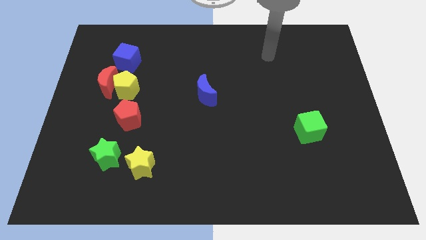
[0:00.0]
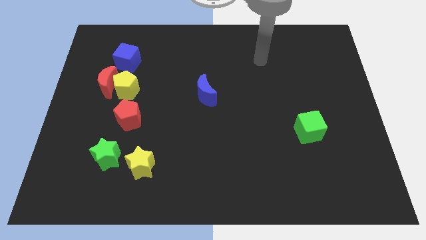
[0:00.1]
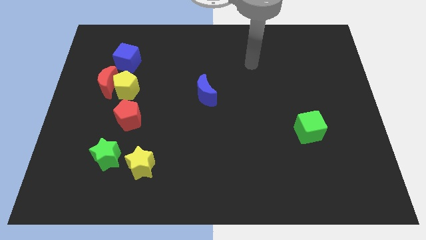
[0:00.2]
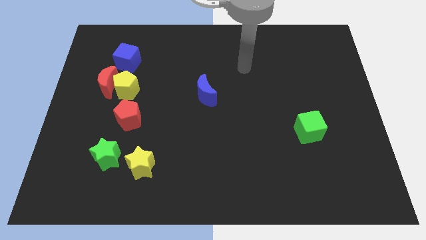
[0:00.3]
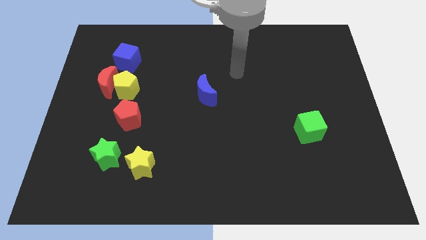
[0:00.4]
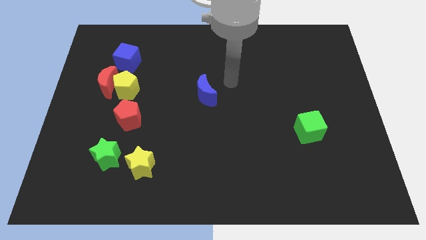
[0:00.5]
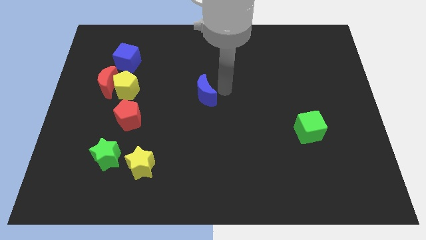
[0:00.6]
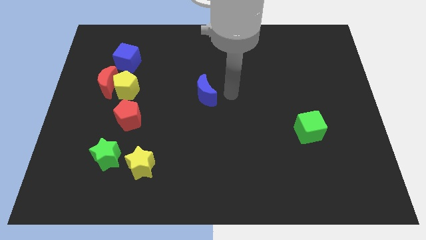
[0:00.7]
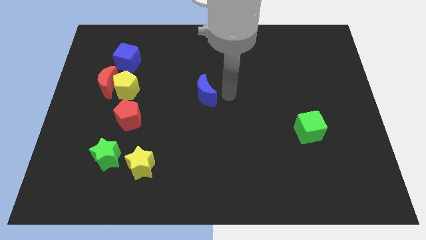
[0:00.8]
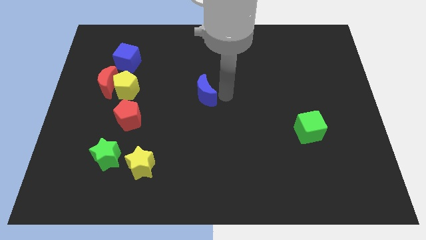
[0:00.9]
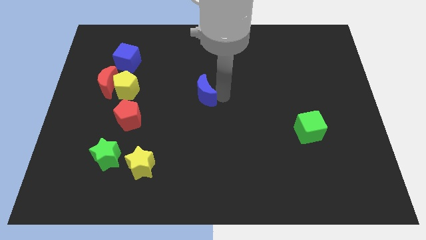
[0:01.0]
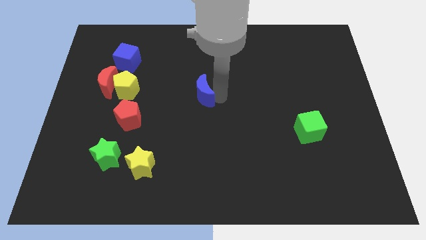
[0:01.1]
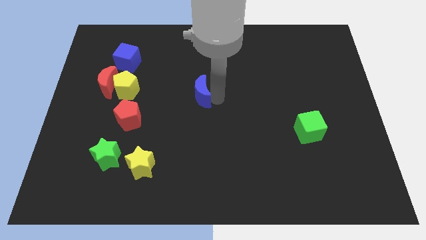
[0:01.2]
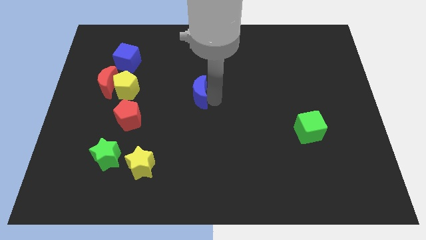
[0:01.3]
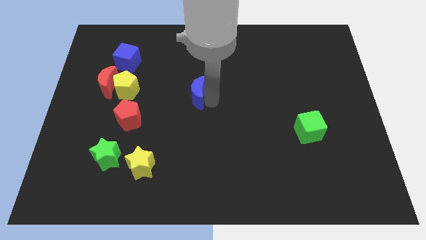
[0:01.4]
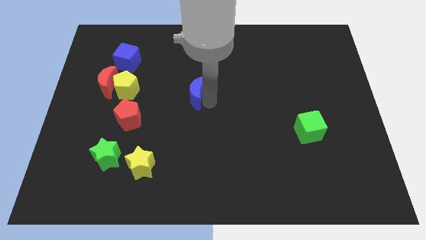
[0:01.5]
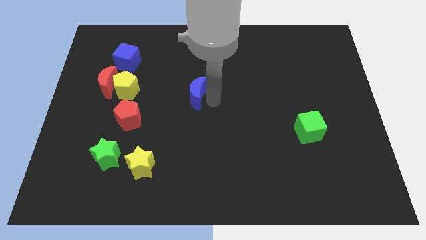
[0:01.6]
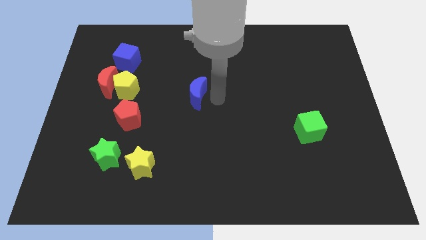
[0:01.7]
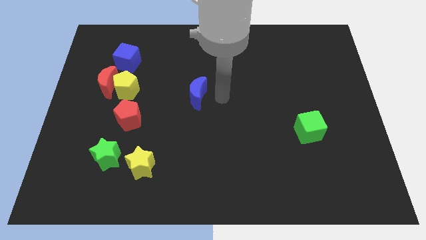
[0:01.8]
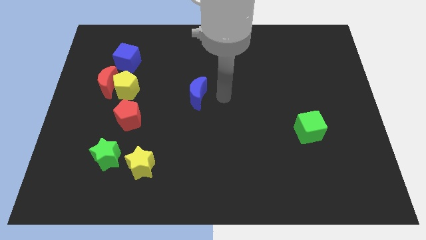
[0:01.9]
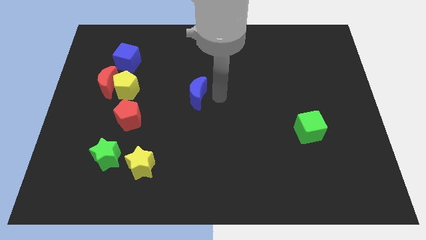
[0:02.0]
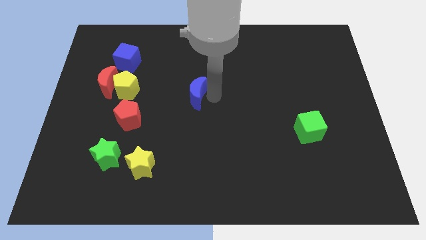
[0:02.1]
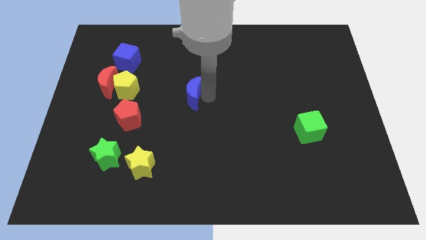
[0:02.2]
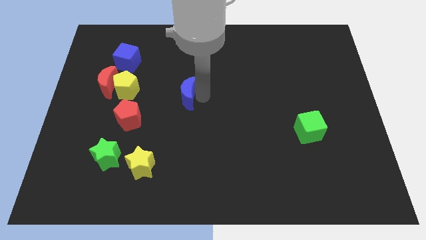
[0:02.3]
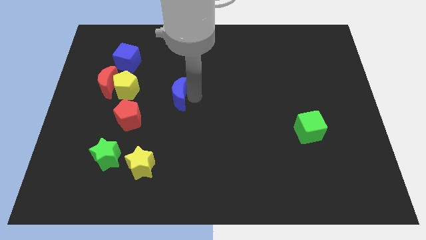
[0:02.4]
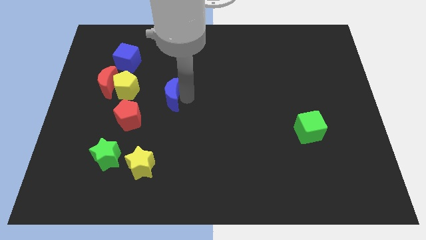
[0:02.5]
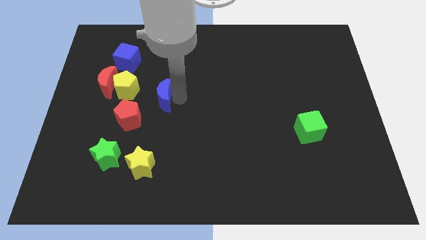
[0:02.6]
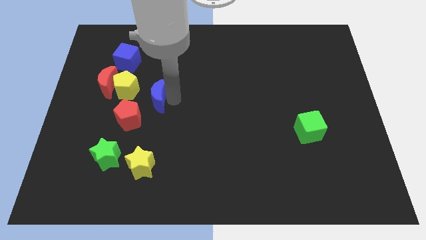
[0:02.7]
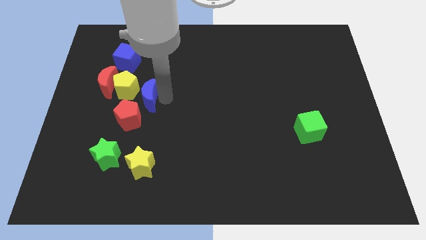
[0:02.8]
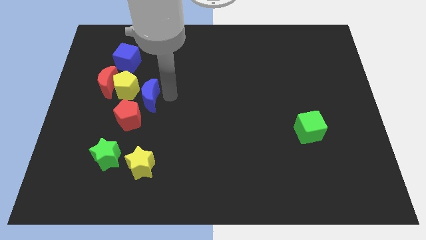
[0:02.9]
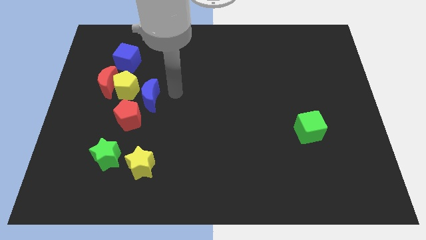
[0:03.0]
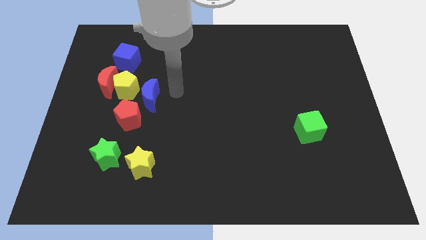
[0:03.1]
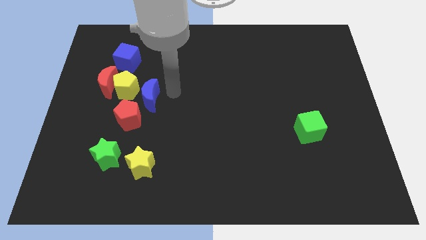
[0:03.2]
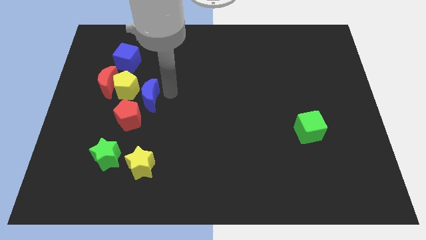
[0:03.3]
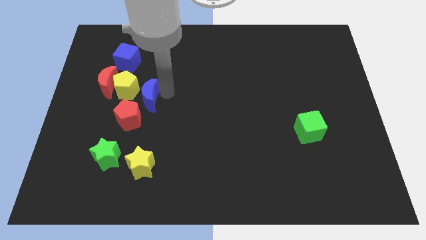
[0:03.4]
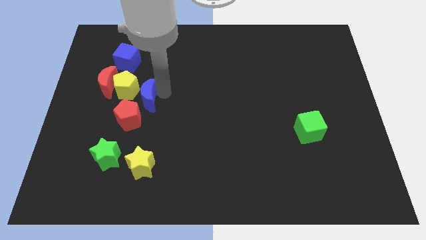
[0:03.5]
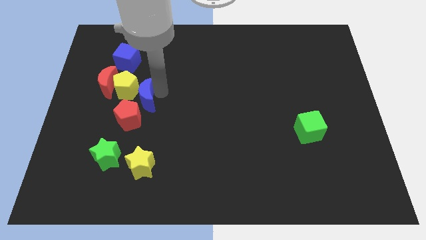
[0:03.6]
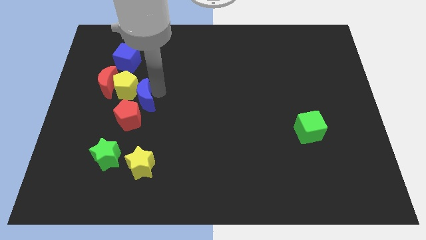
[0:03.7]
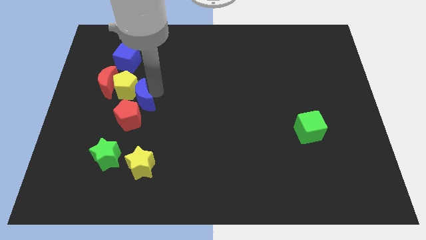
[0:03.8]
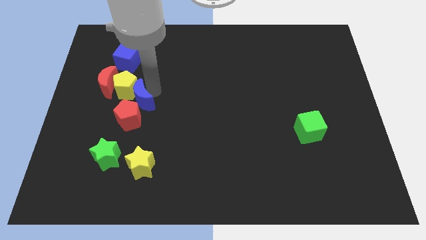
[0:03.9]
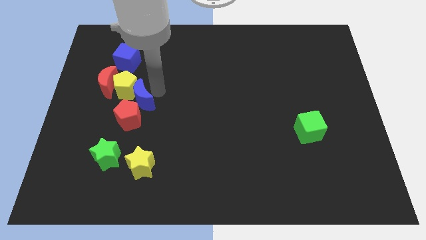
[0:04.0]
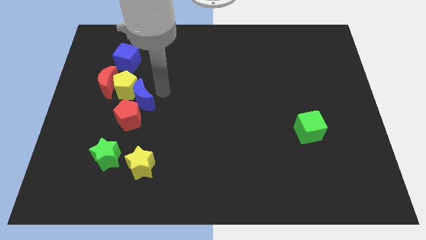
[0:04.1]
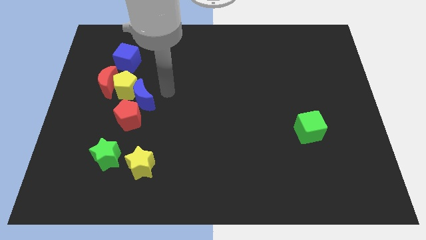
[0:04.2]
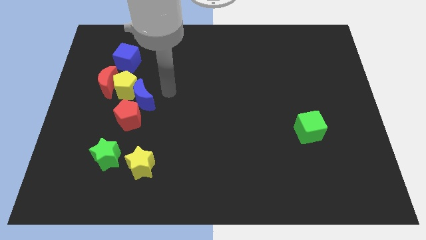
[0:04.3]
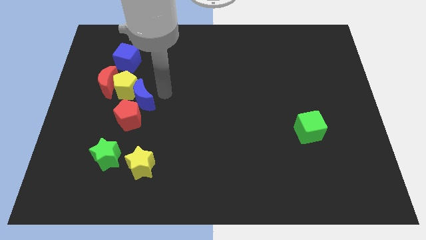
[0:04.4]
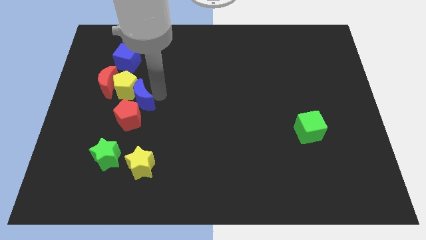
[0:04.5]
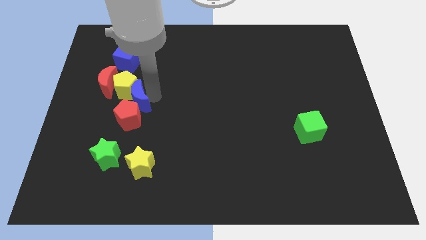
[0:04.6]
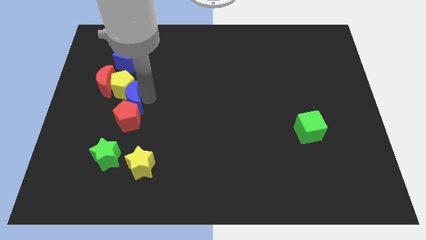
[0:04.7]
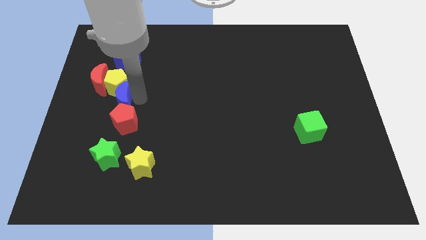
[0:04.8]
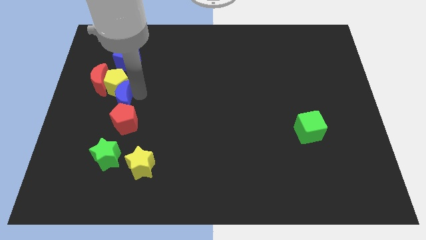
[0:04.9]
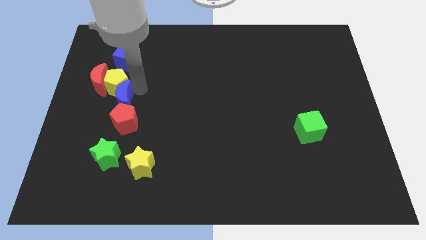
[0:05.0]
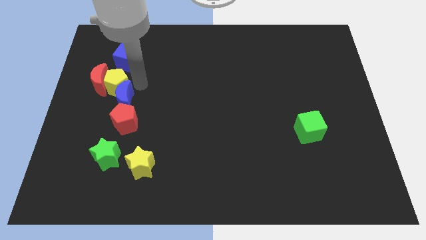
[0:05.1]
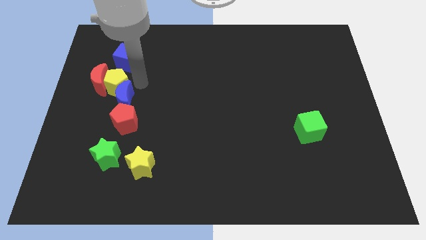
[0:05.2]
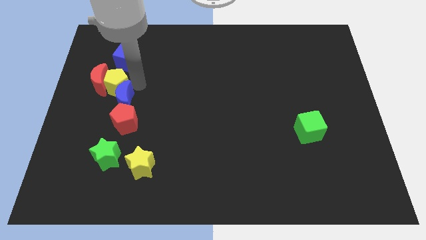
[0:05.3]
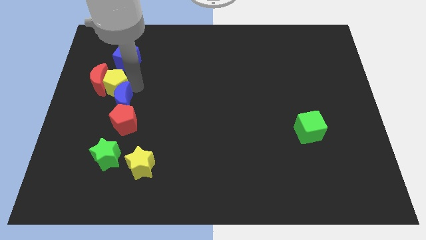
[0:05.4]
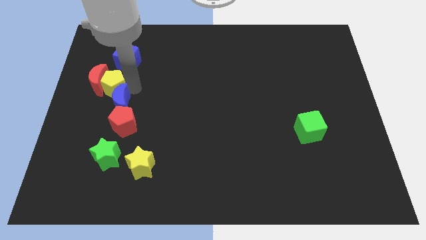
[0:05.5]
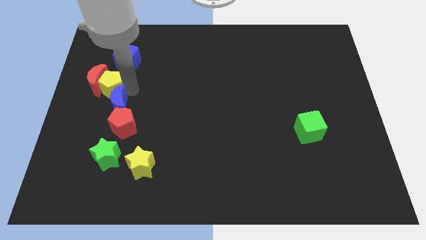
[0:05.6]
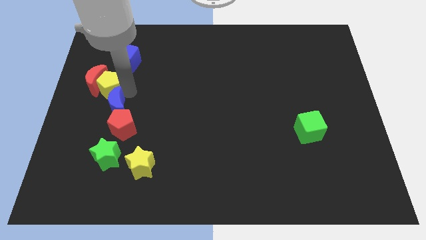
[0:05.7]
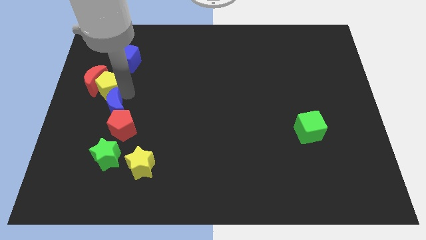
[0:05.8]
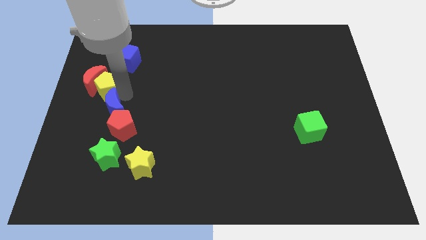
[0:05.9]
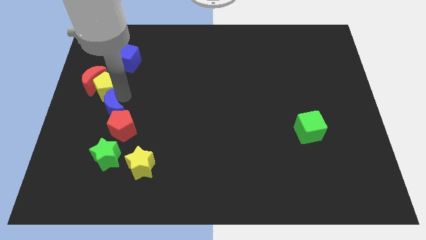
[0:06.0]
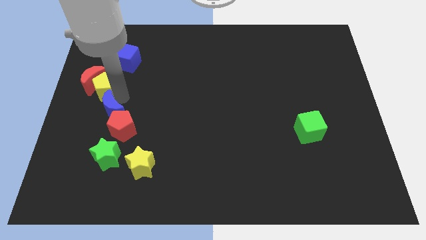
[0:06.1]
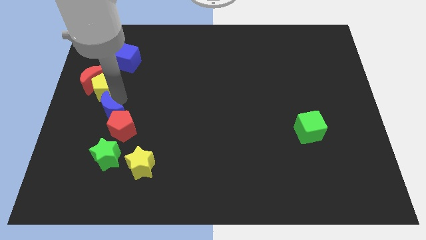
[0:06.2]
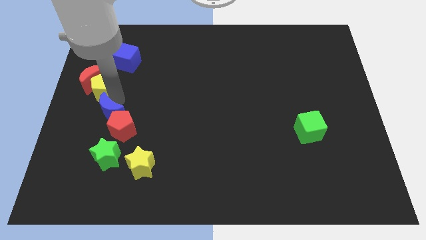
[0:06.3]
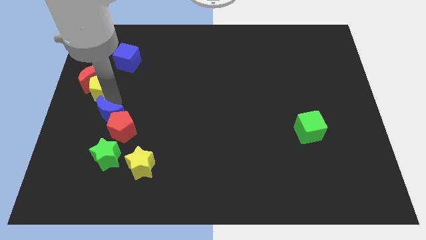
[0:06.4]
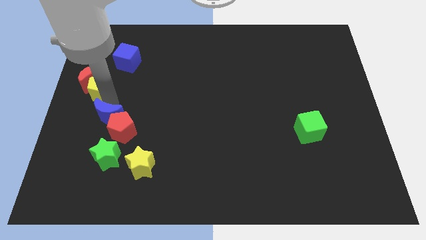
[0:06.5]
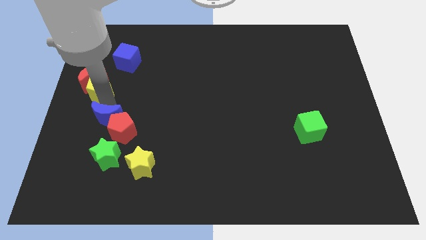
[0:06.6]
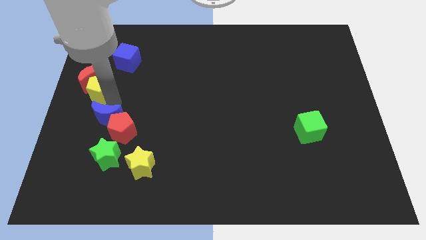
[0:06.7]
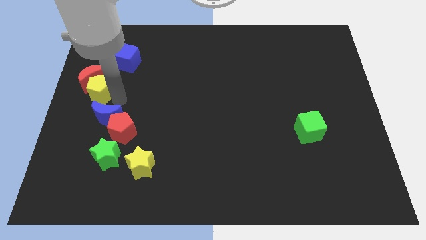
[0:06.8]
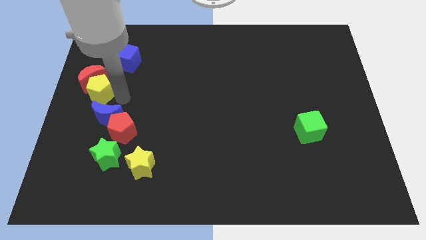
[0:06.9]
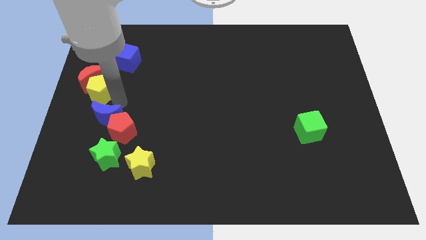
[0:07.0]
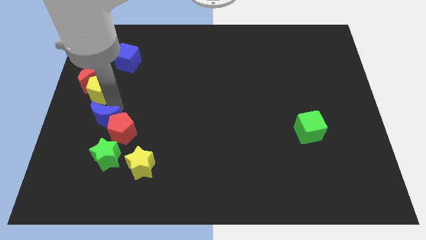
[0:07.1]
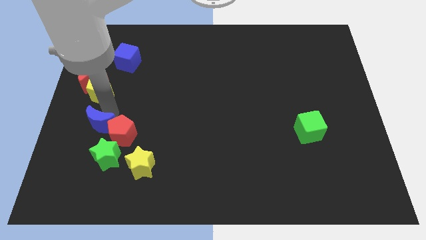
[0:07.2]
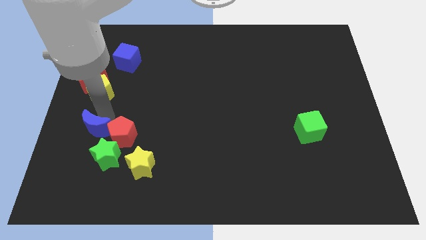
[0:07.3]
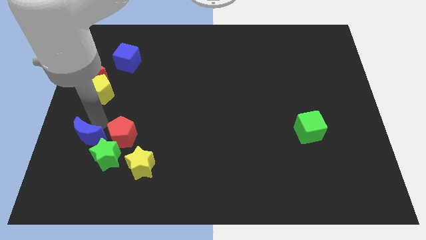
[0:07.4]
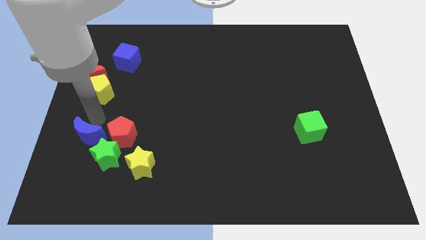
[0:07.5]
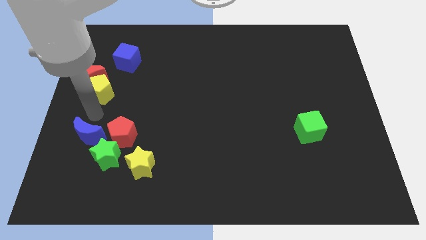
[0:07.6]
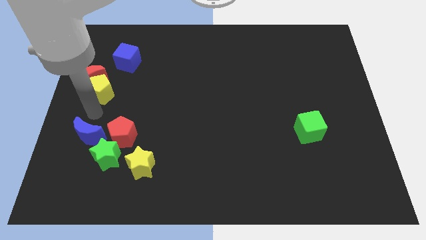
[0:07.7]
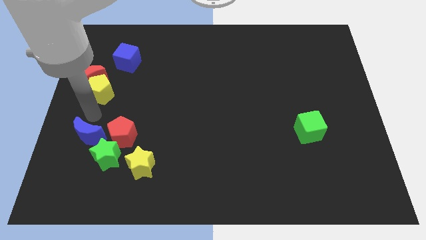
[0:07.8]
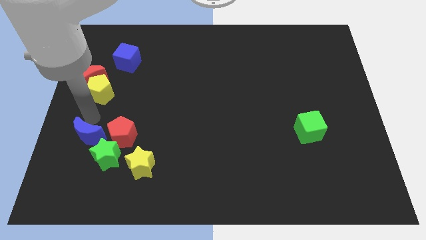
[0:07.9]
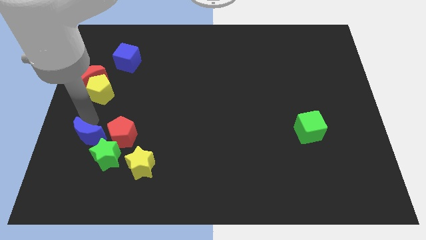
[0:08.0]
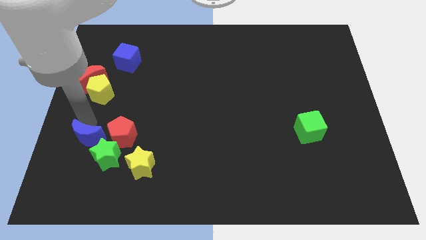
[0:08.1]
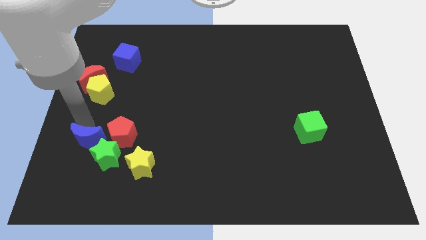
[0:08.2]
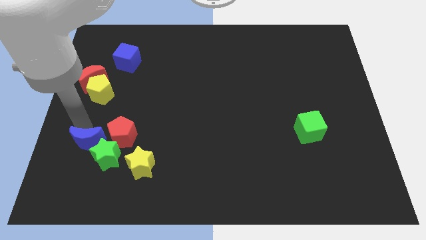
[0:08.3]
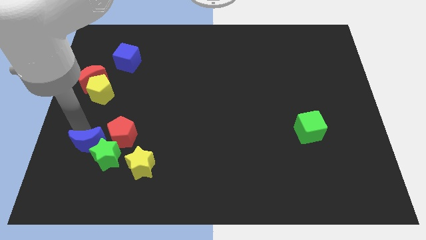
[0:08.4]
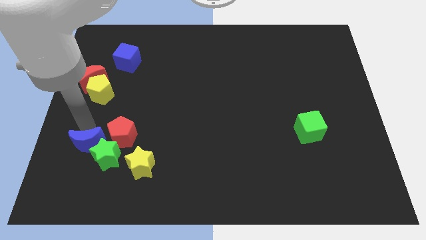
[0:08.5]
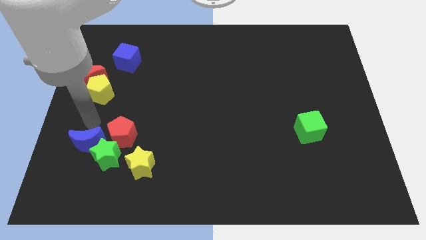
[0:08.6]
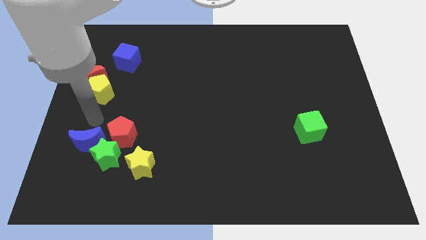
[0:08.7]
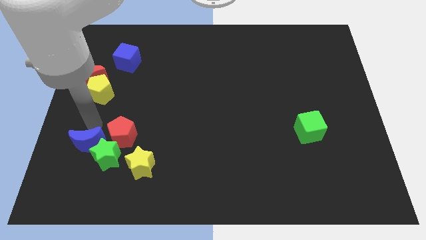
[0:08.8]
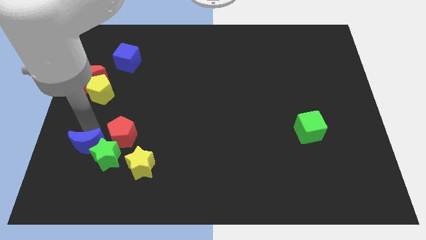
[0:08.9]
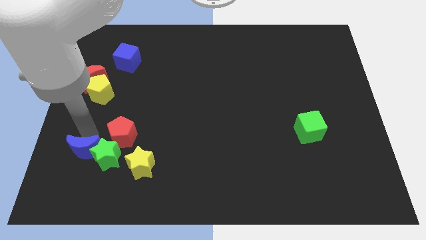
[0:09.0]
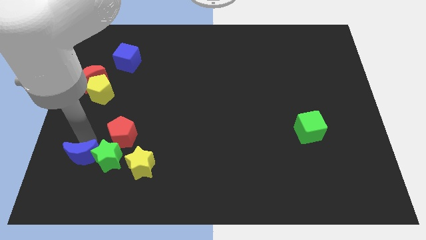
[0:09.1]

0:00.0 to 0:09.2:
move the blue moon to the bottom left of the green star
